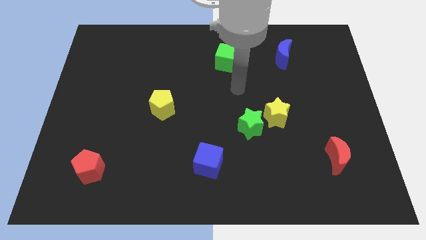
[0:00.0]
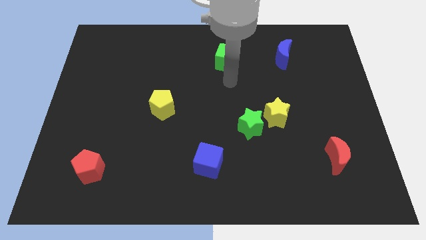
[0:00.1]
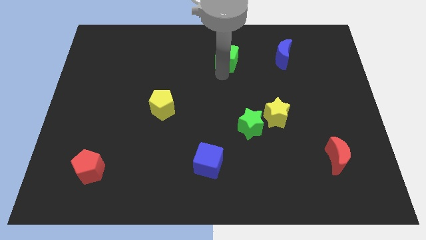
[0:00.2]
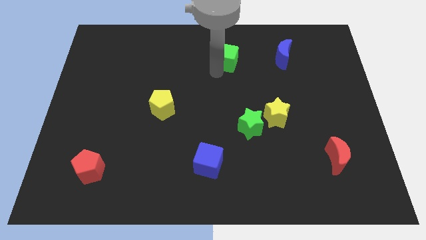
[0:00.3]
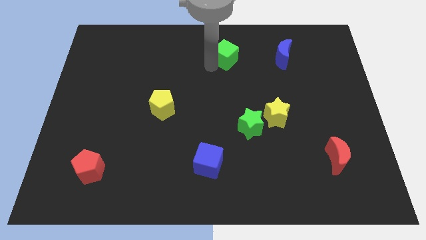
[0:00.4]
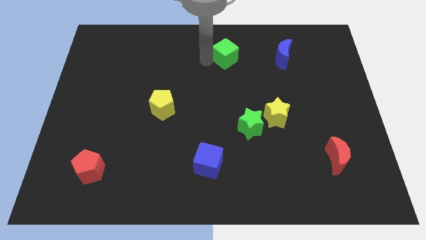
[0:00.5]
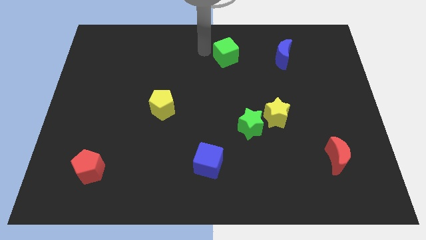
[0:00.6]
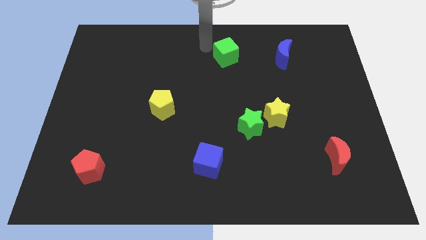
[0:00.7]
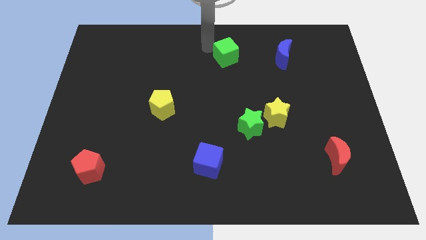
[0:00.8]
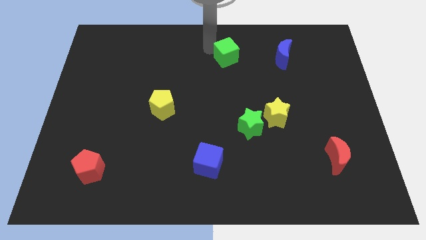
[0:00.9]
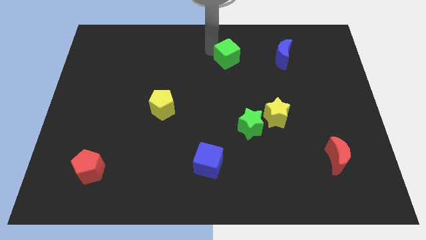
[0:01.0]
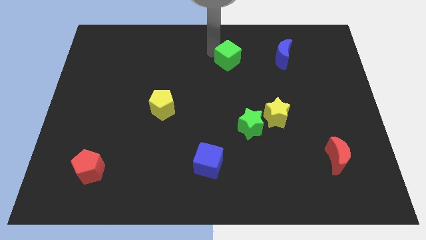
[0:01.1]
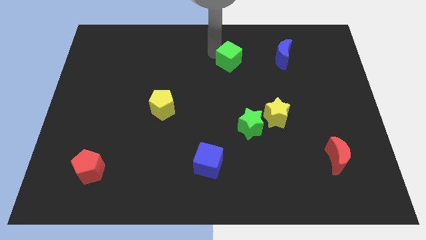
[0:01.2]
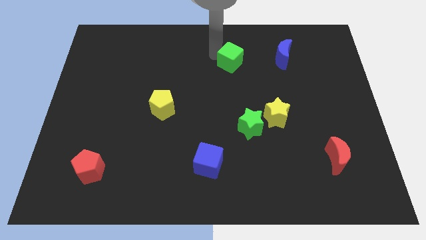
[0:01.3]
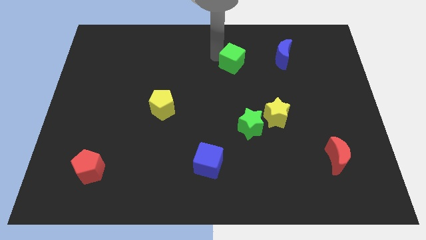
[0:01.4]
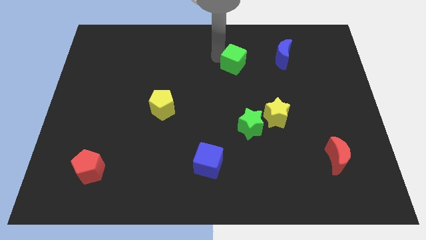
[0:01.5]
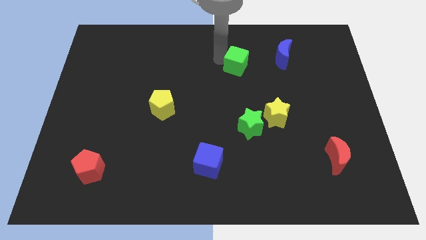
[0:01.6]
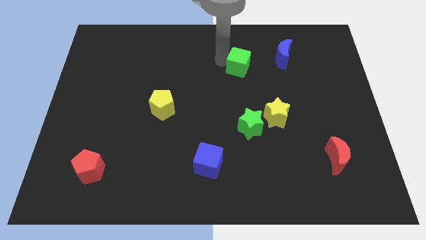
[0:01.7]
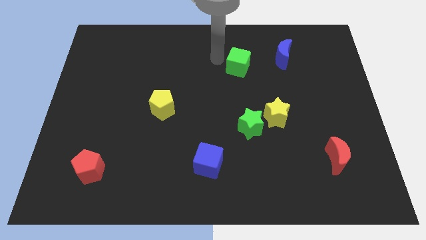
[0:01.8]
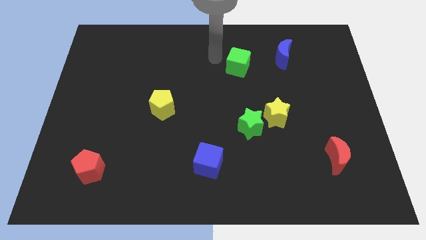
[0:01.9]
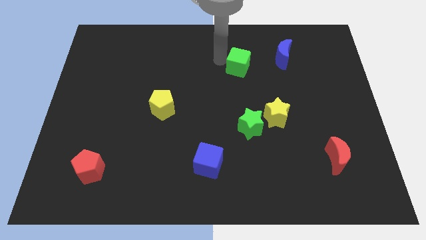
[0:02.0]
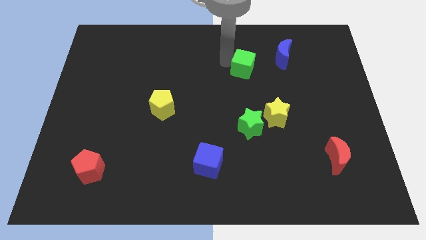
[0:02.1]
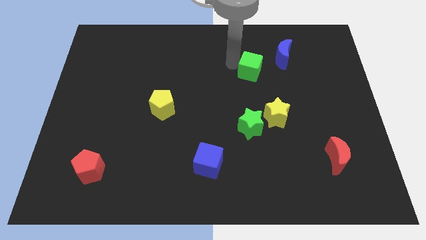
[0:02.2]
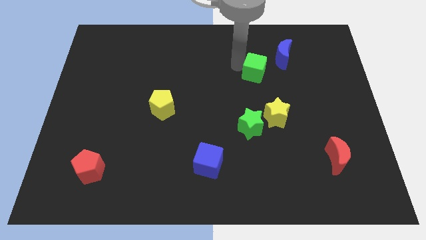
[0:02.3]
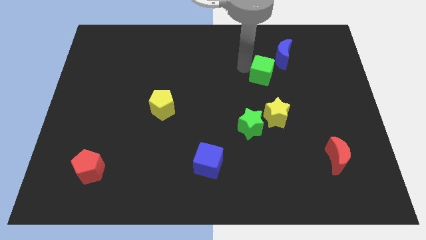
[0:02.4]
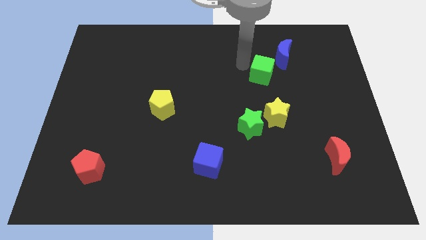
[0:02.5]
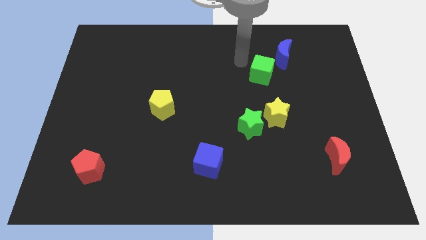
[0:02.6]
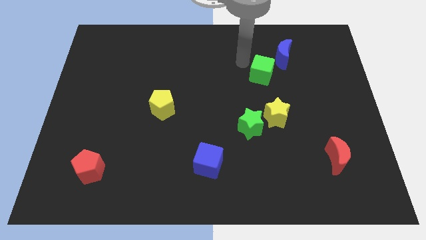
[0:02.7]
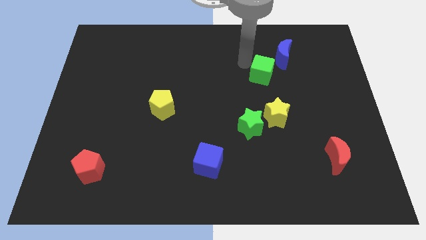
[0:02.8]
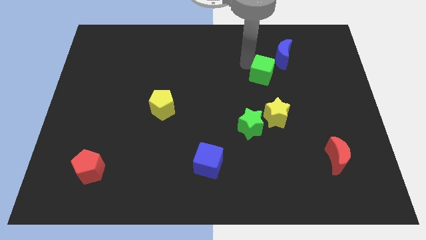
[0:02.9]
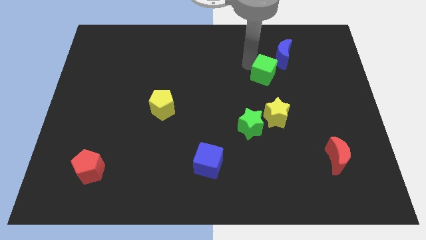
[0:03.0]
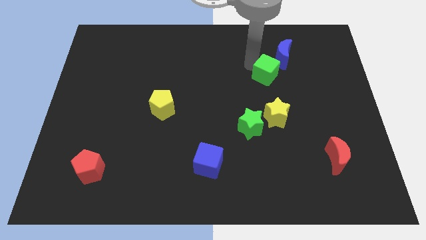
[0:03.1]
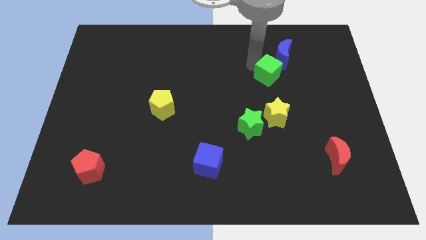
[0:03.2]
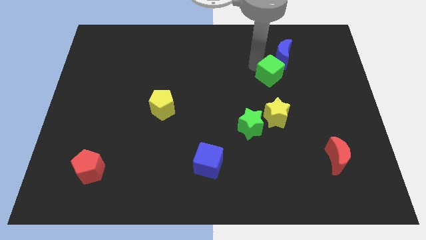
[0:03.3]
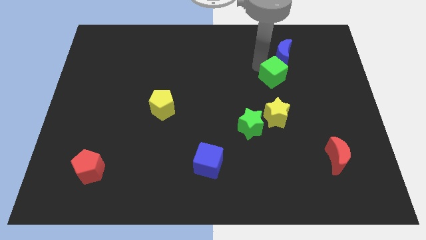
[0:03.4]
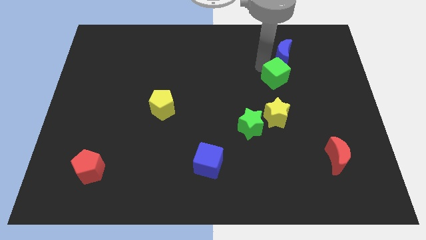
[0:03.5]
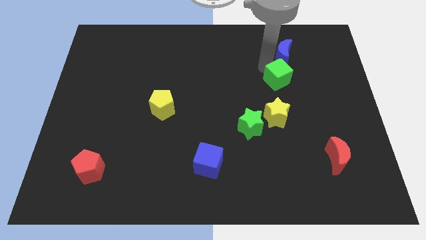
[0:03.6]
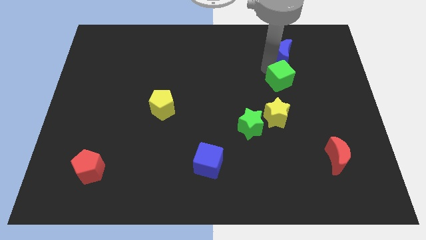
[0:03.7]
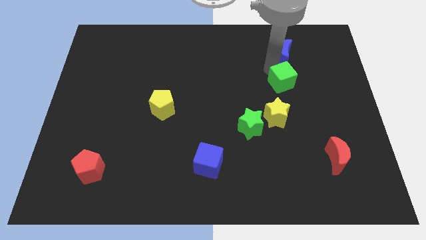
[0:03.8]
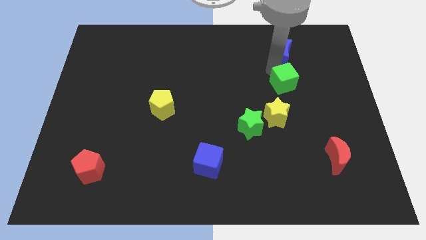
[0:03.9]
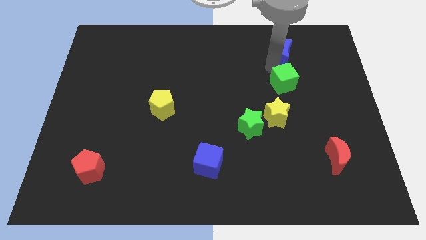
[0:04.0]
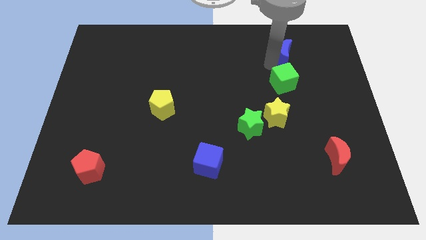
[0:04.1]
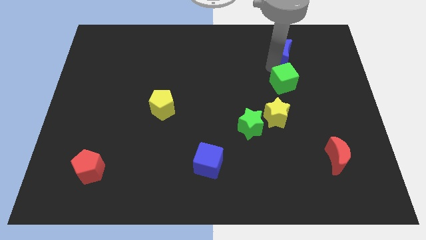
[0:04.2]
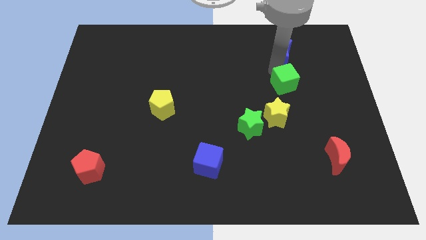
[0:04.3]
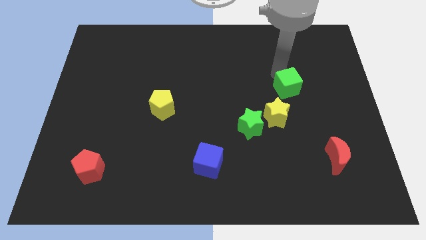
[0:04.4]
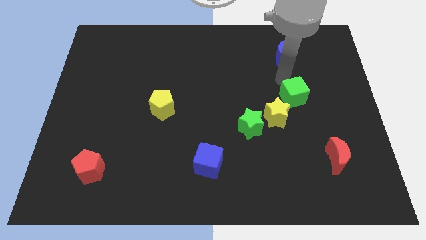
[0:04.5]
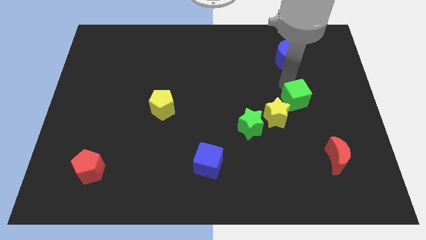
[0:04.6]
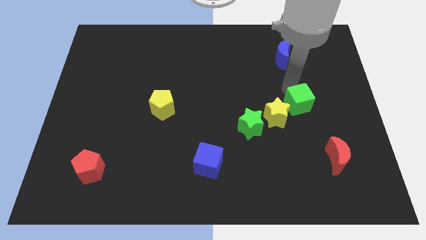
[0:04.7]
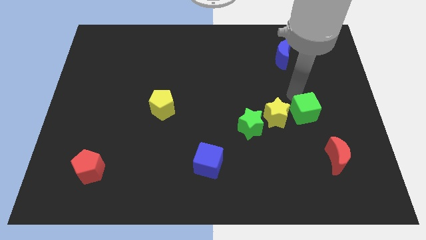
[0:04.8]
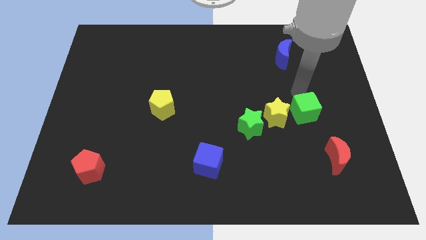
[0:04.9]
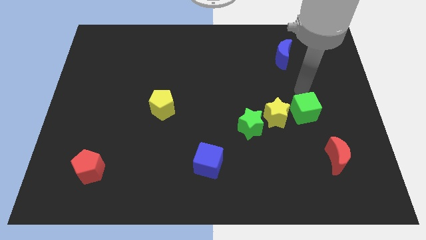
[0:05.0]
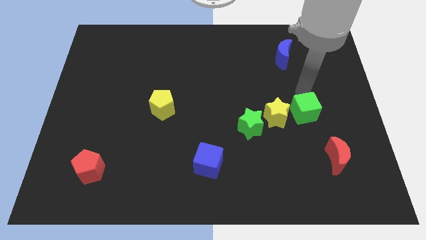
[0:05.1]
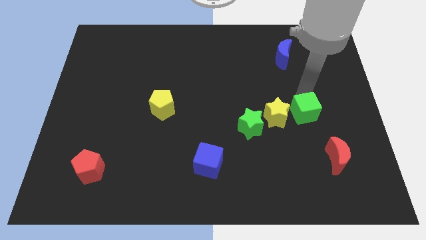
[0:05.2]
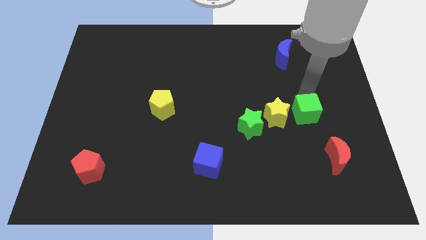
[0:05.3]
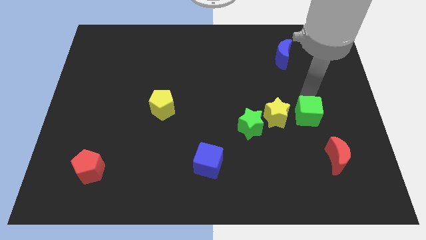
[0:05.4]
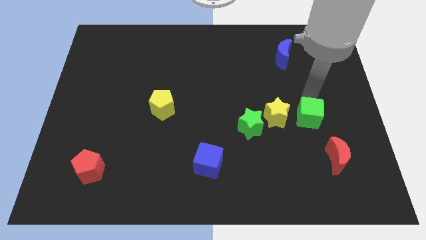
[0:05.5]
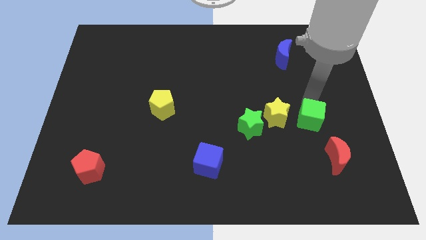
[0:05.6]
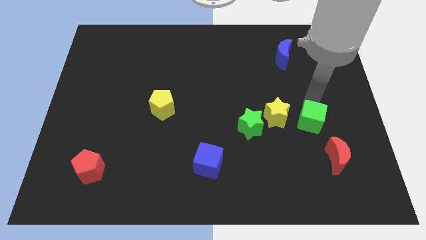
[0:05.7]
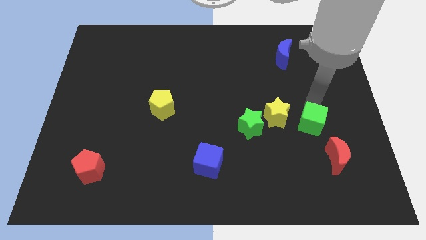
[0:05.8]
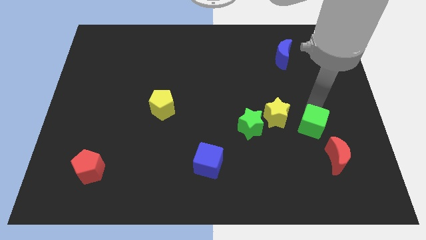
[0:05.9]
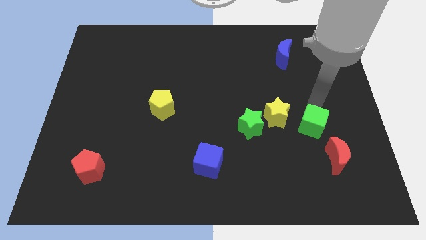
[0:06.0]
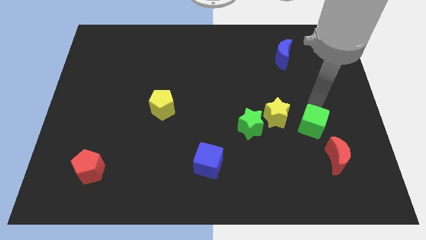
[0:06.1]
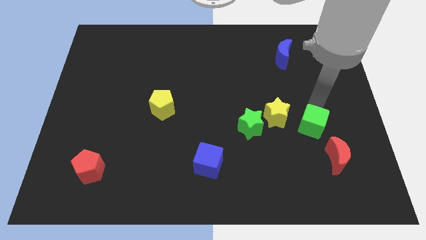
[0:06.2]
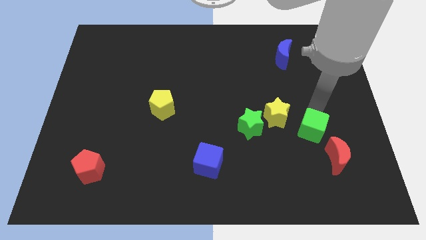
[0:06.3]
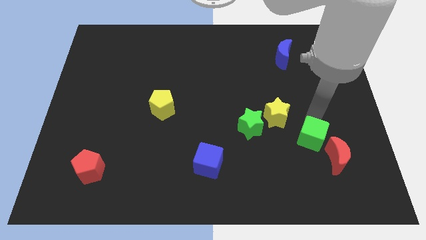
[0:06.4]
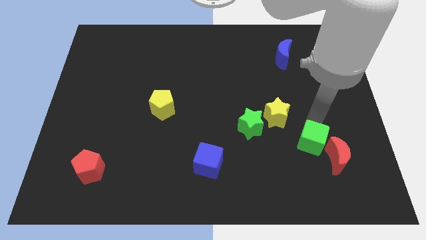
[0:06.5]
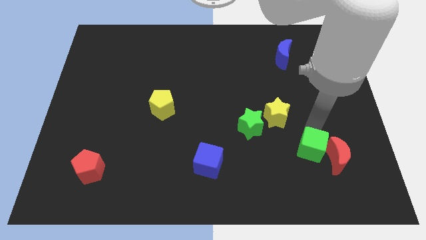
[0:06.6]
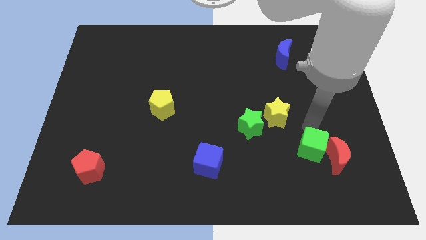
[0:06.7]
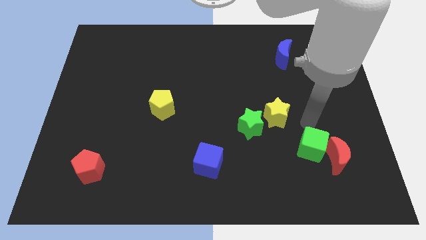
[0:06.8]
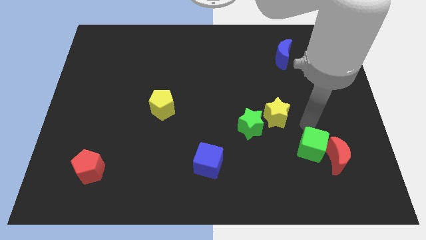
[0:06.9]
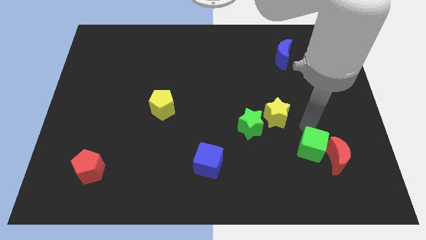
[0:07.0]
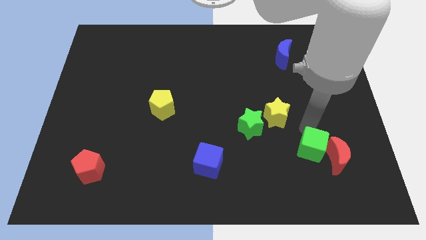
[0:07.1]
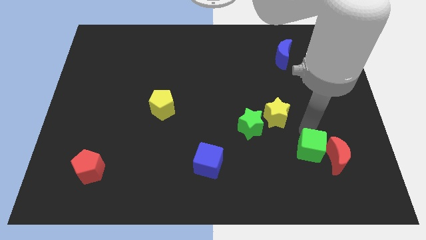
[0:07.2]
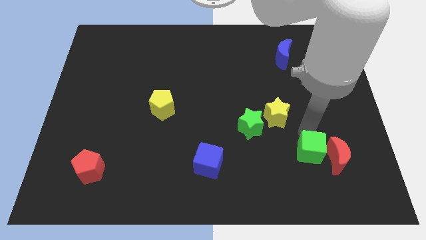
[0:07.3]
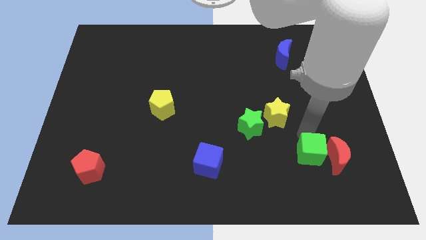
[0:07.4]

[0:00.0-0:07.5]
put the green cube diagonally down and to the left of the red moon
